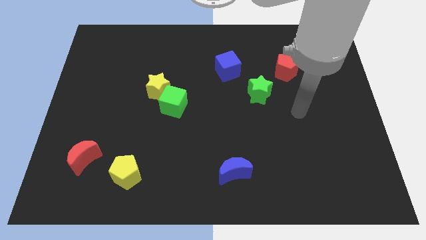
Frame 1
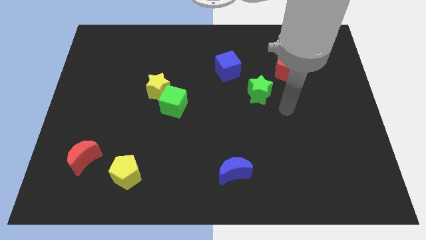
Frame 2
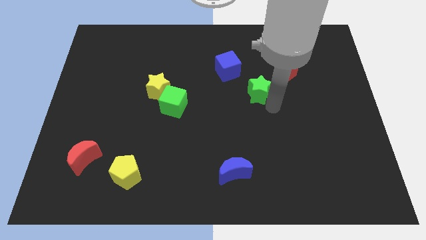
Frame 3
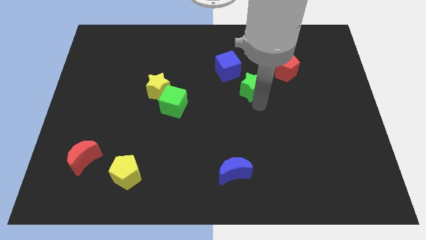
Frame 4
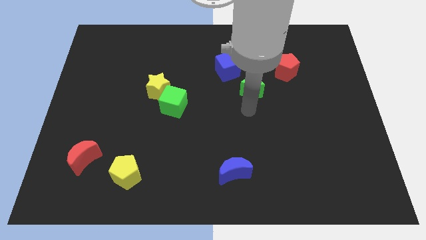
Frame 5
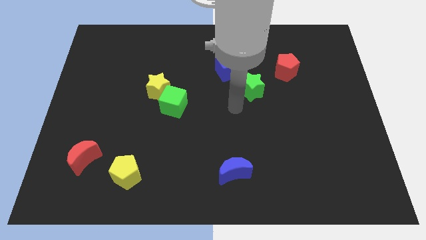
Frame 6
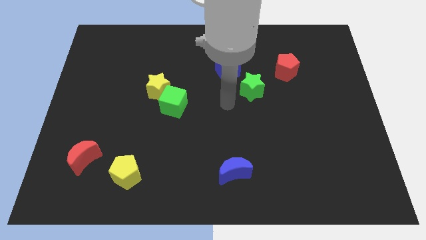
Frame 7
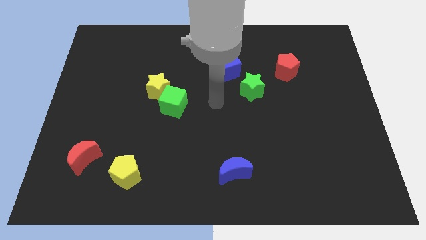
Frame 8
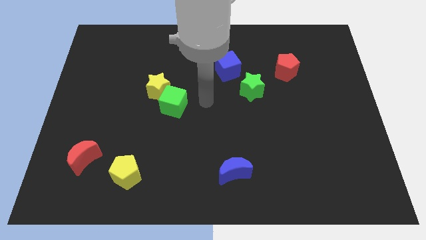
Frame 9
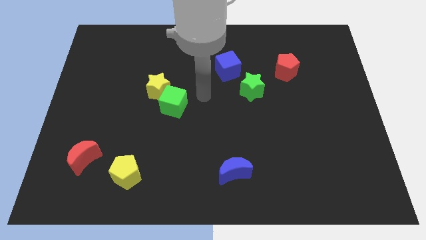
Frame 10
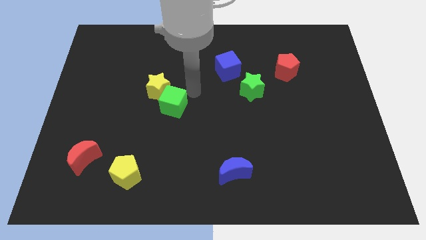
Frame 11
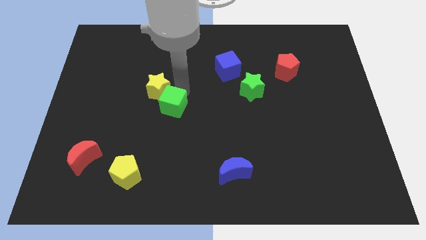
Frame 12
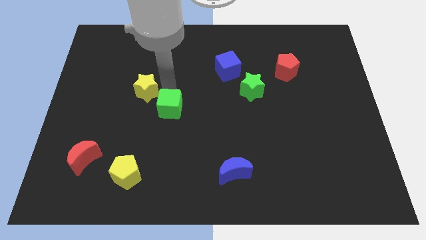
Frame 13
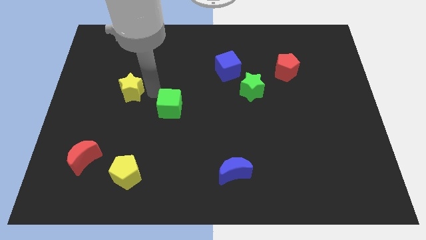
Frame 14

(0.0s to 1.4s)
separate the green cube from the yellow star

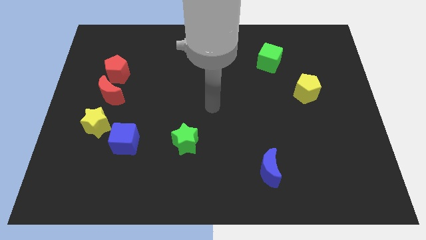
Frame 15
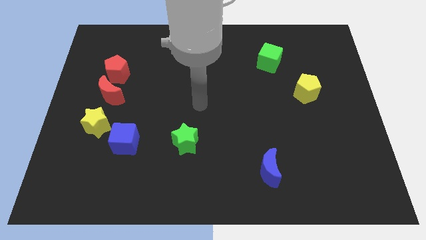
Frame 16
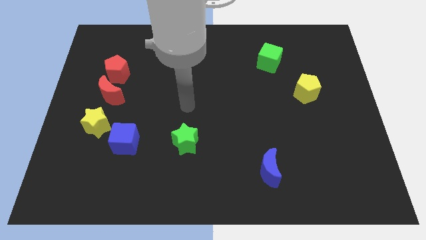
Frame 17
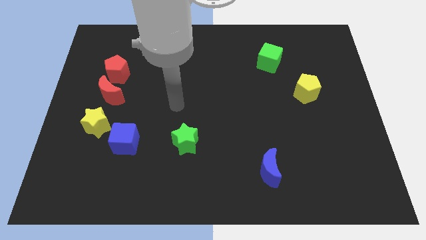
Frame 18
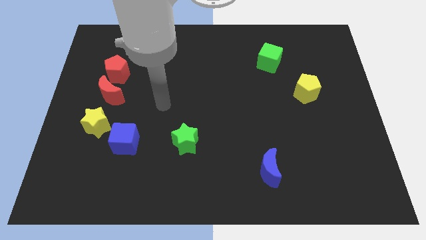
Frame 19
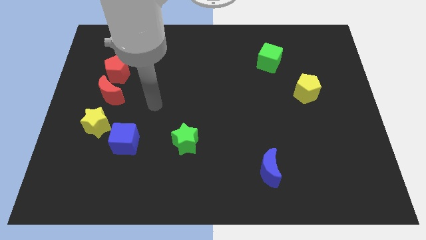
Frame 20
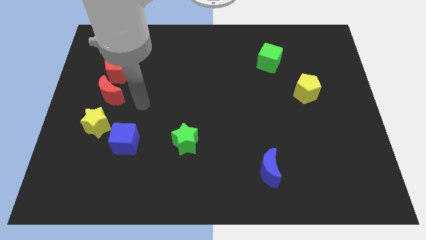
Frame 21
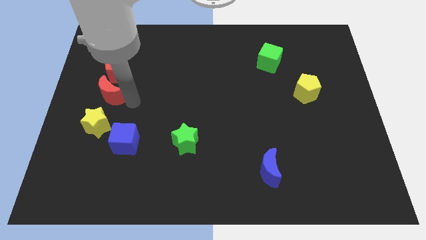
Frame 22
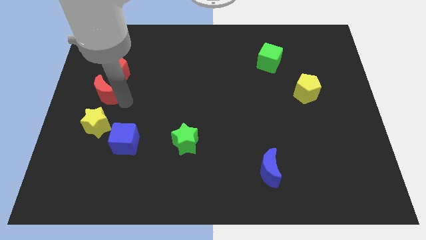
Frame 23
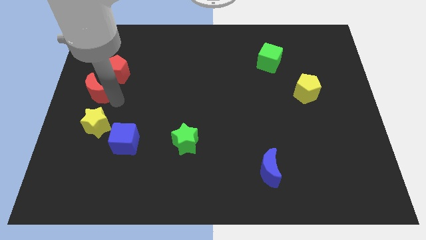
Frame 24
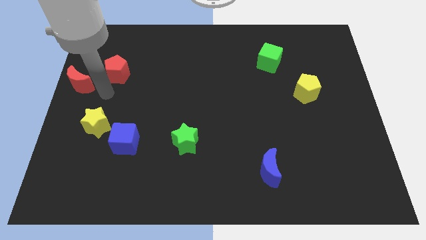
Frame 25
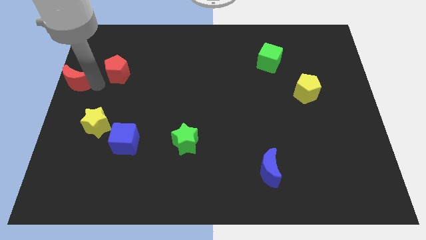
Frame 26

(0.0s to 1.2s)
pull the red pentagon apart from the red moon

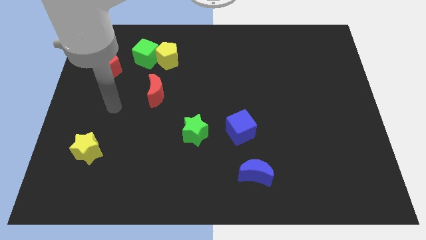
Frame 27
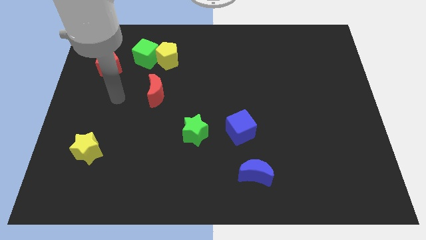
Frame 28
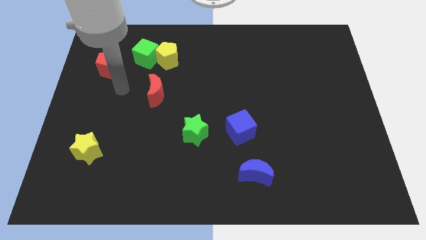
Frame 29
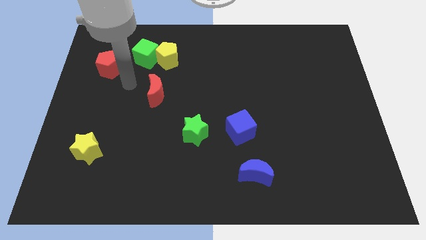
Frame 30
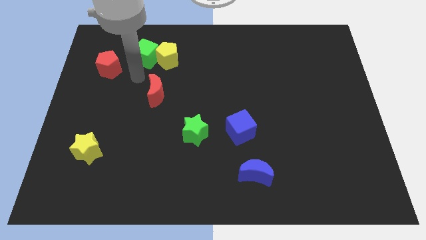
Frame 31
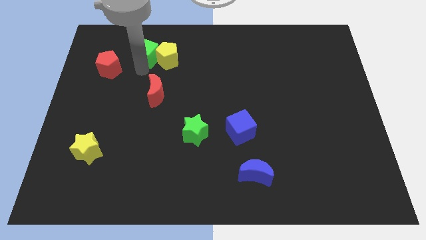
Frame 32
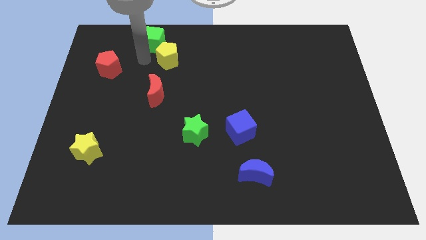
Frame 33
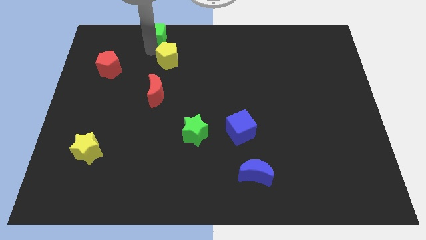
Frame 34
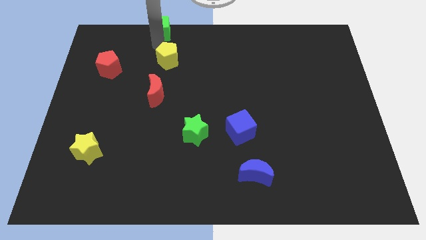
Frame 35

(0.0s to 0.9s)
separate the yellow pentagon from the green cube

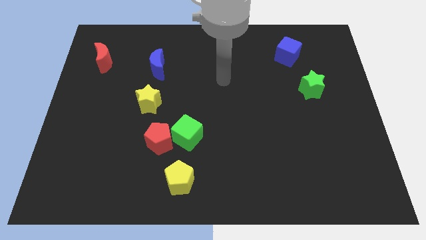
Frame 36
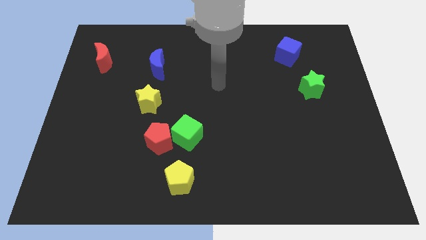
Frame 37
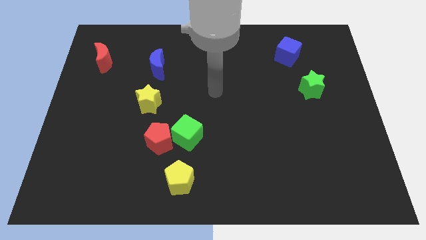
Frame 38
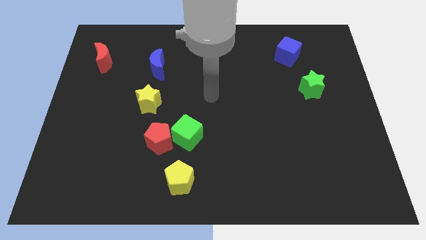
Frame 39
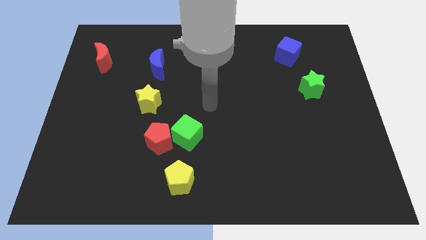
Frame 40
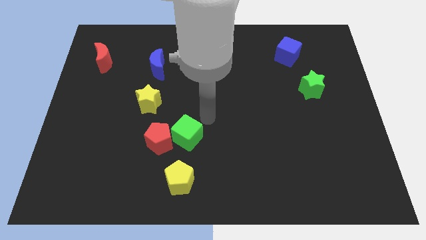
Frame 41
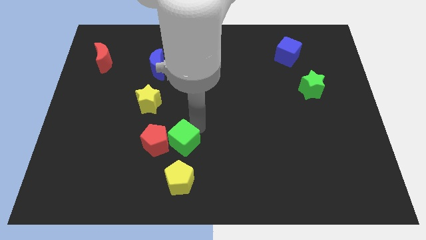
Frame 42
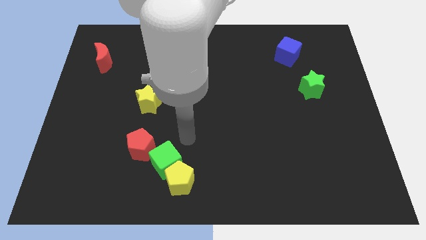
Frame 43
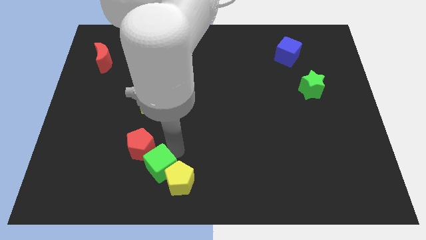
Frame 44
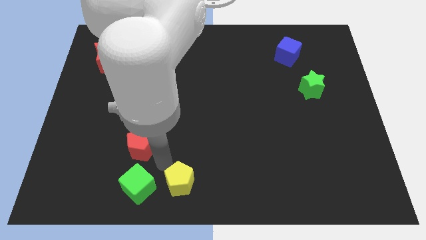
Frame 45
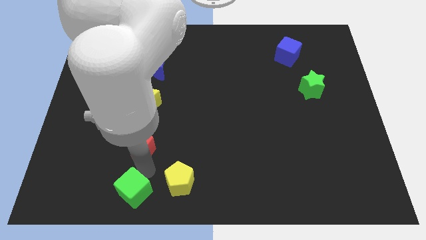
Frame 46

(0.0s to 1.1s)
pull the red pentagon apart from the green cube

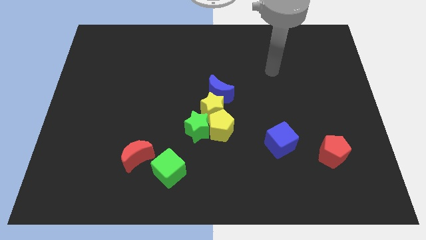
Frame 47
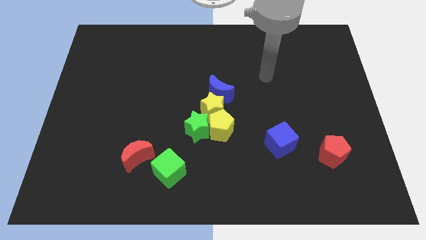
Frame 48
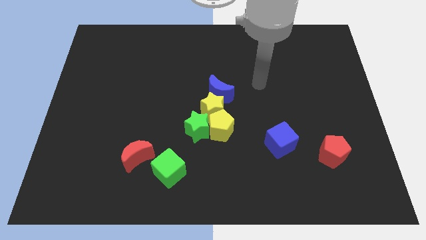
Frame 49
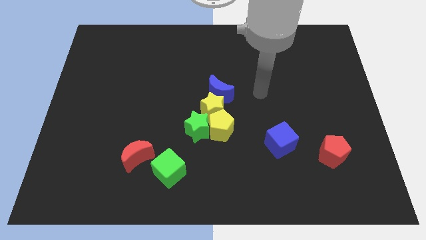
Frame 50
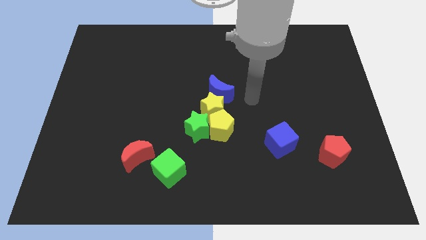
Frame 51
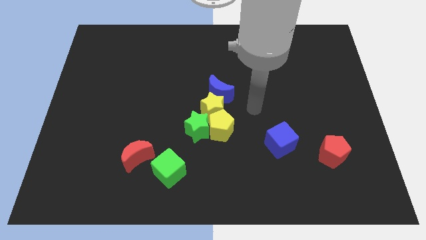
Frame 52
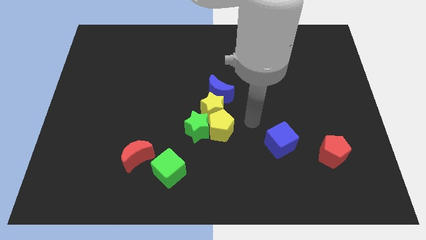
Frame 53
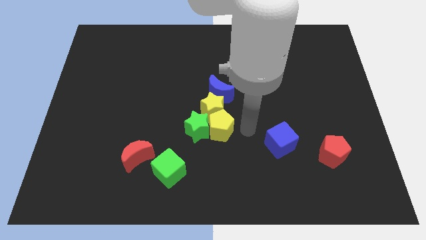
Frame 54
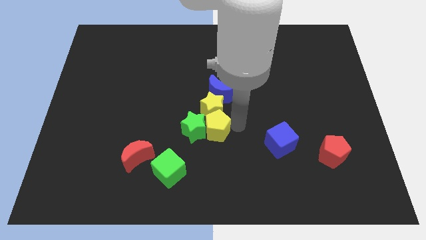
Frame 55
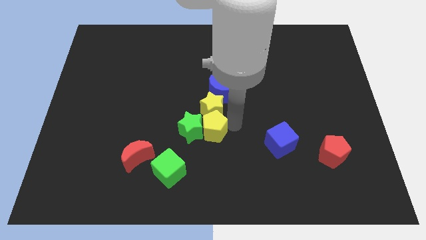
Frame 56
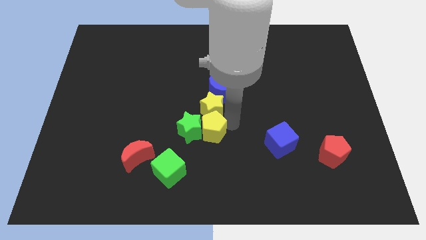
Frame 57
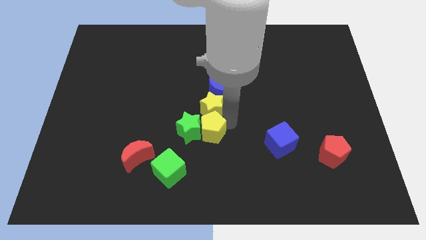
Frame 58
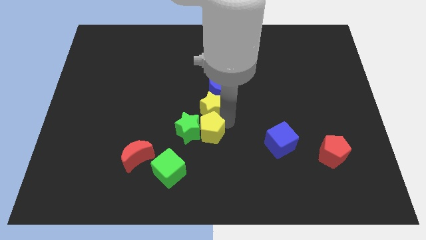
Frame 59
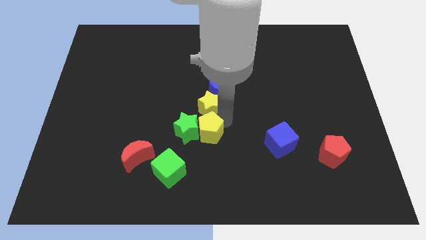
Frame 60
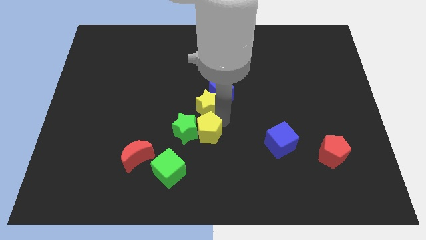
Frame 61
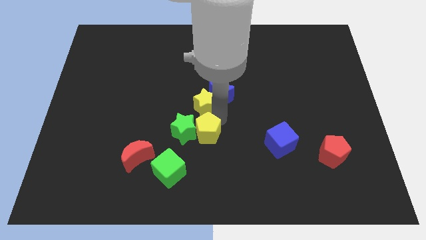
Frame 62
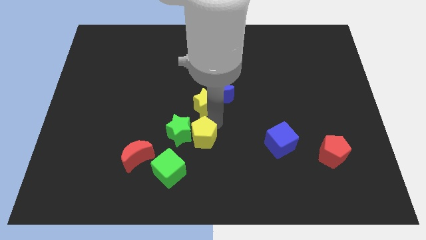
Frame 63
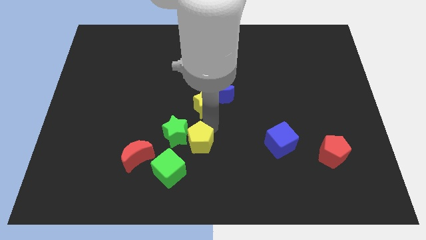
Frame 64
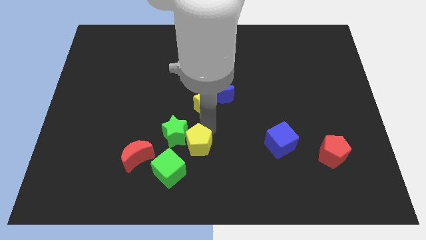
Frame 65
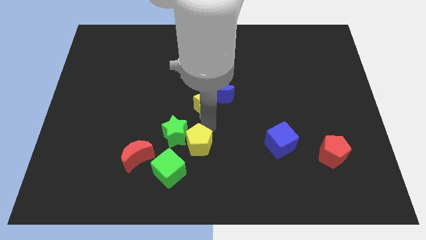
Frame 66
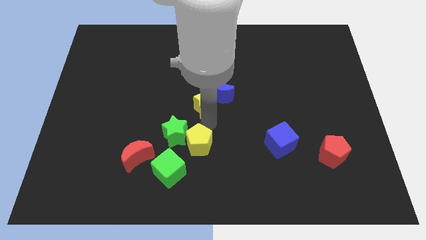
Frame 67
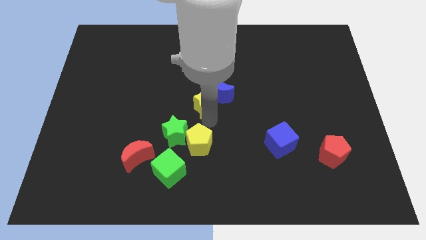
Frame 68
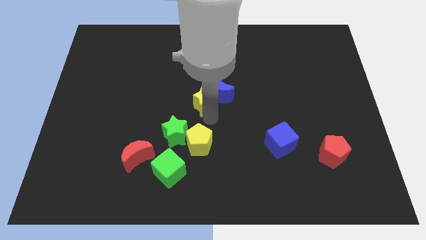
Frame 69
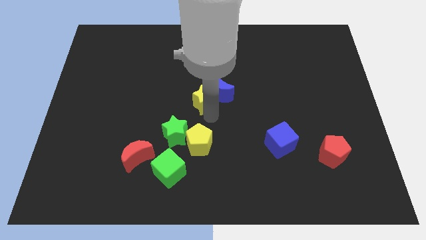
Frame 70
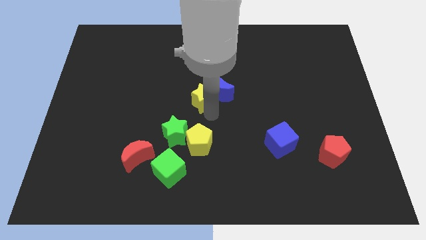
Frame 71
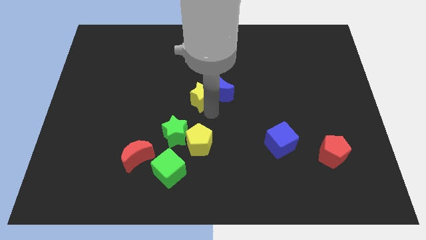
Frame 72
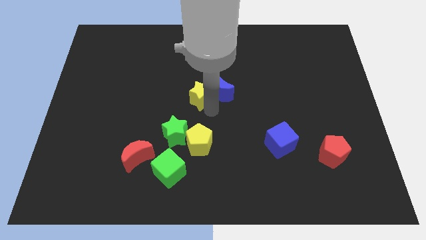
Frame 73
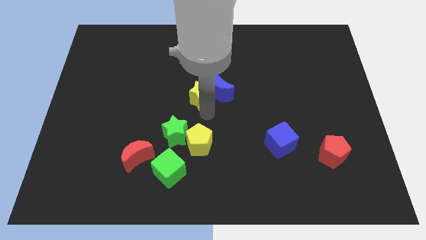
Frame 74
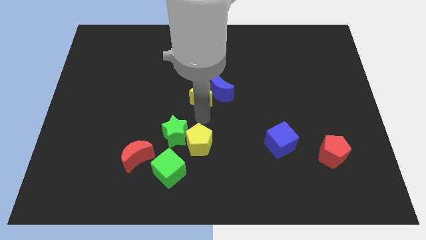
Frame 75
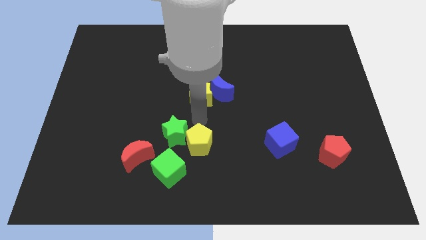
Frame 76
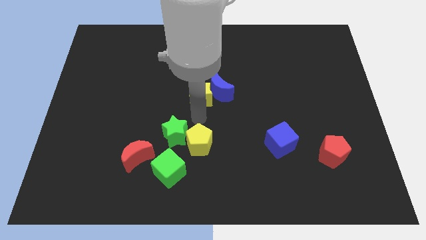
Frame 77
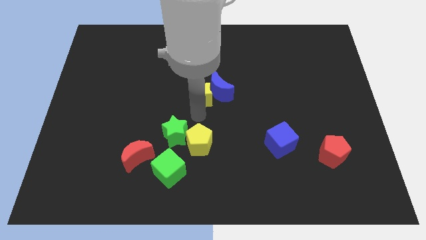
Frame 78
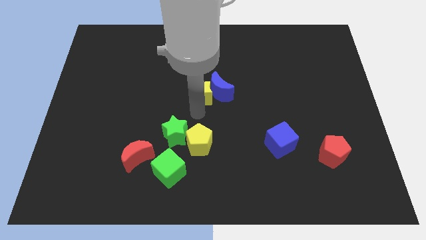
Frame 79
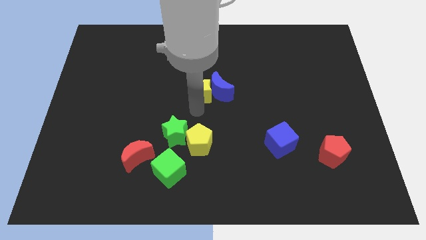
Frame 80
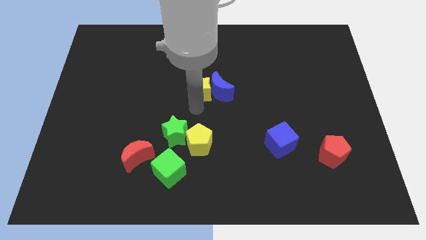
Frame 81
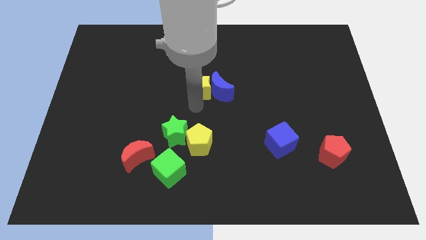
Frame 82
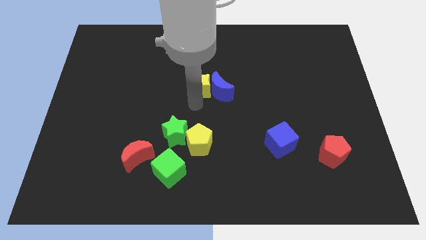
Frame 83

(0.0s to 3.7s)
separate the yellow star from the group

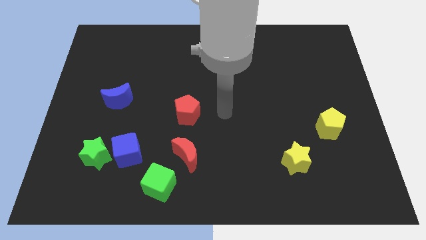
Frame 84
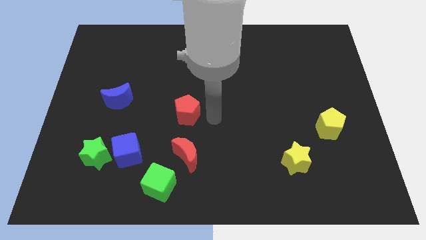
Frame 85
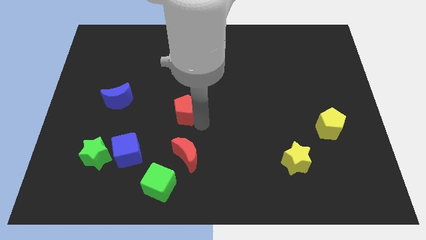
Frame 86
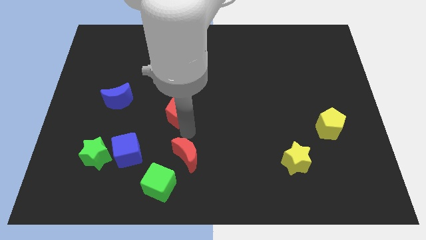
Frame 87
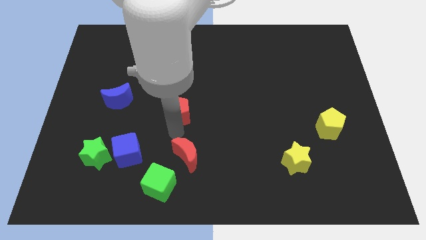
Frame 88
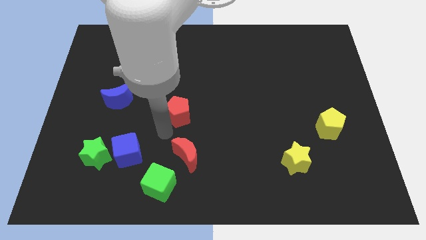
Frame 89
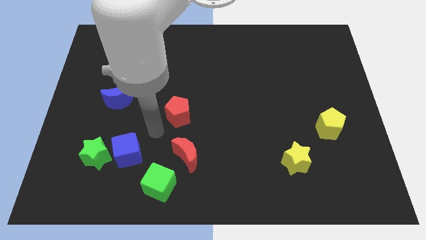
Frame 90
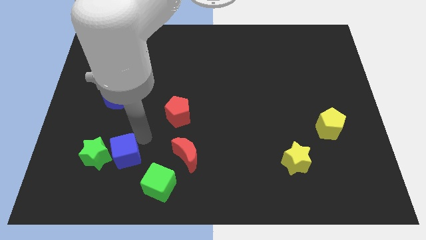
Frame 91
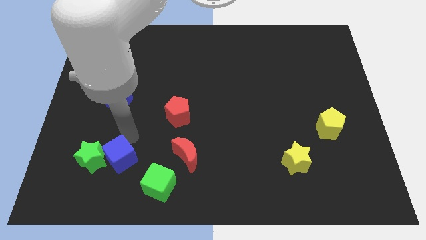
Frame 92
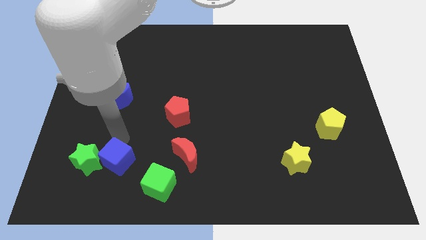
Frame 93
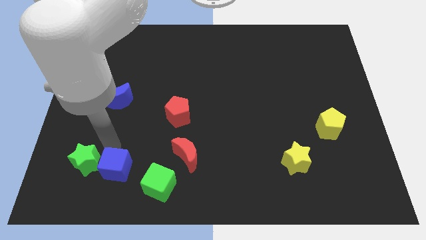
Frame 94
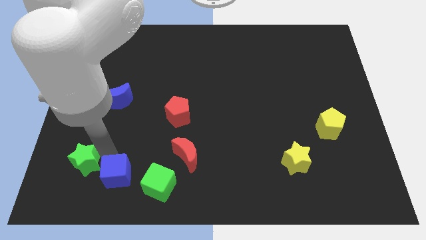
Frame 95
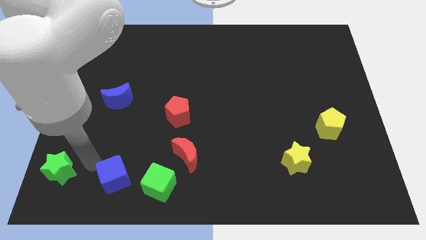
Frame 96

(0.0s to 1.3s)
separate the blue cube from the green star
